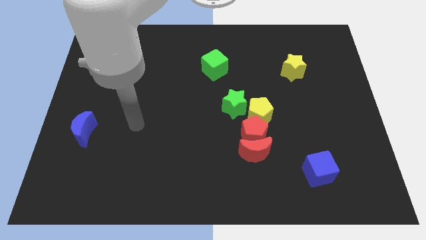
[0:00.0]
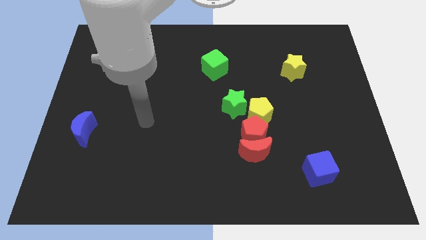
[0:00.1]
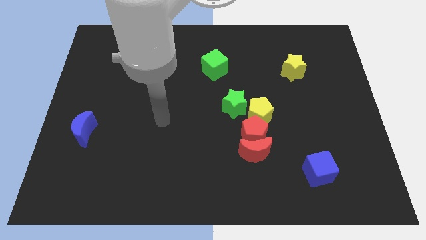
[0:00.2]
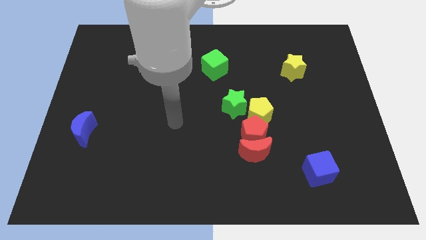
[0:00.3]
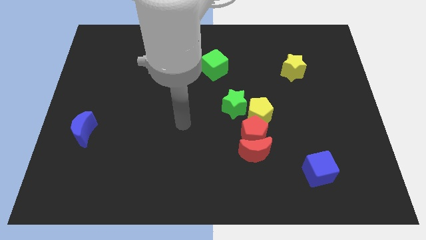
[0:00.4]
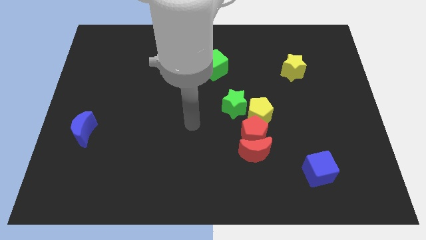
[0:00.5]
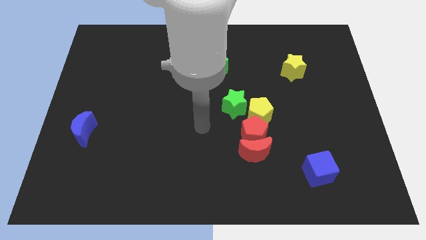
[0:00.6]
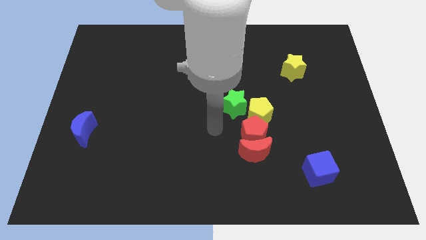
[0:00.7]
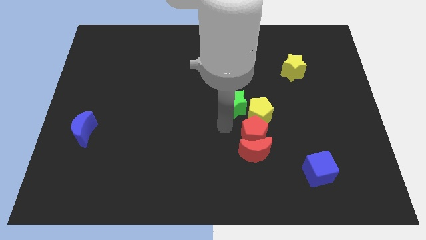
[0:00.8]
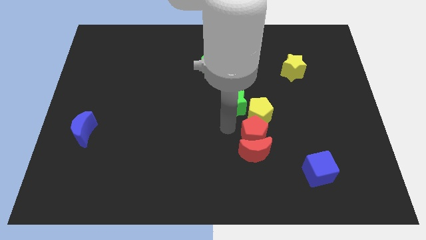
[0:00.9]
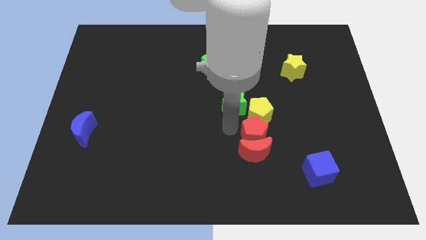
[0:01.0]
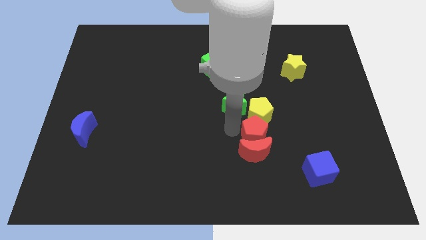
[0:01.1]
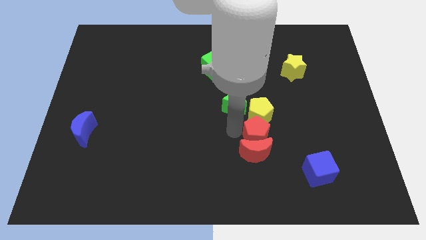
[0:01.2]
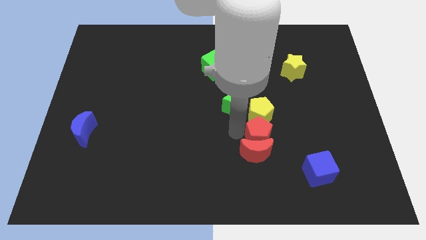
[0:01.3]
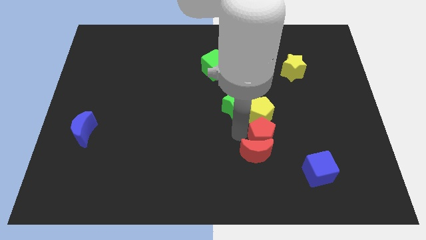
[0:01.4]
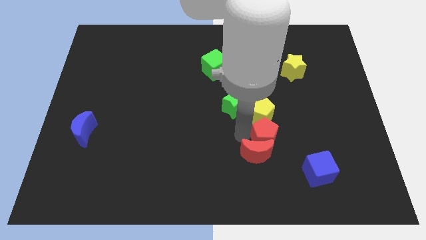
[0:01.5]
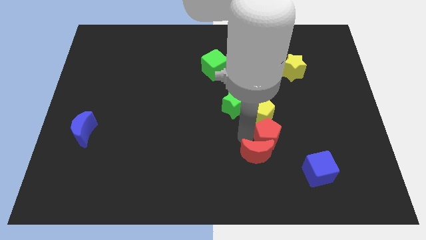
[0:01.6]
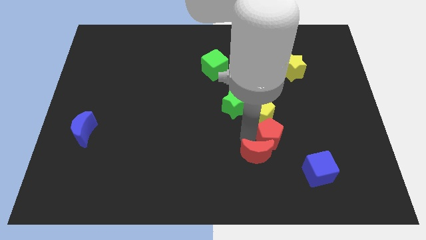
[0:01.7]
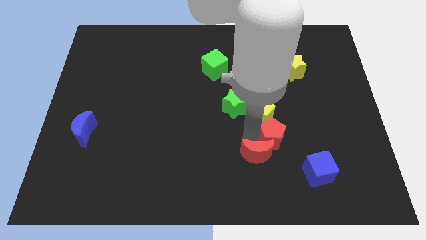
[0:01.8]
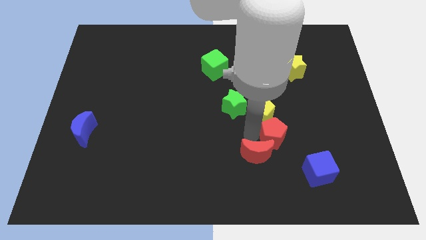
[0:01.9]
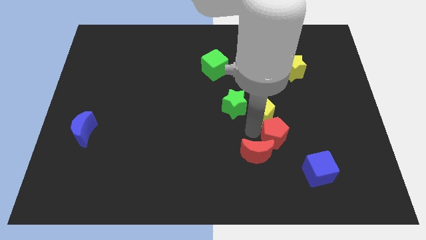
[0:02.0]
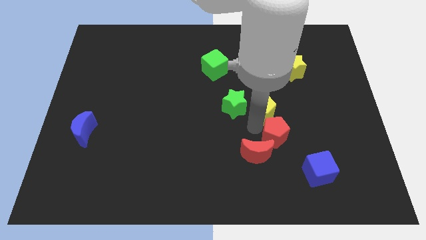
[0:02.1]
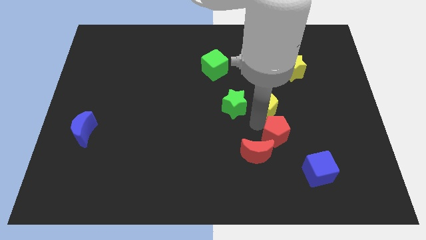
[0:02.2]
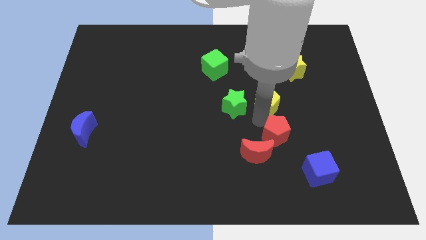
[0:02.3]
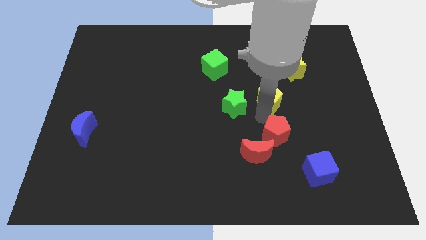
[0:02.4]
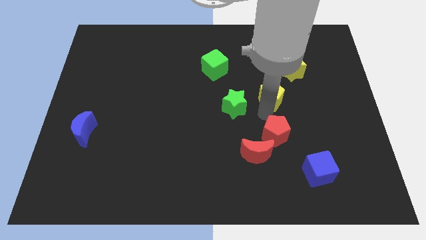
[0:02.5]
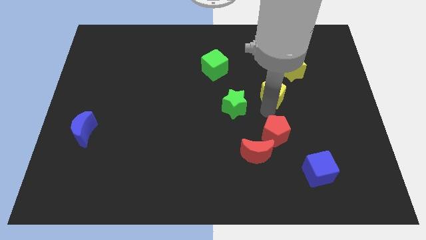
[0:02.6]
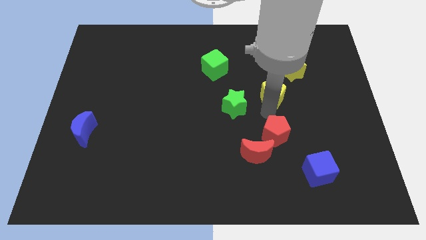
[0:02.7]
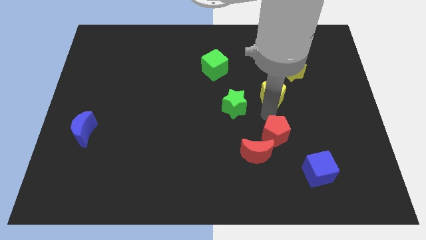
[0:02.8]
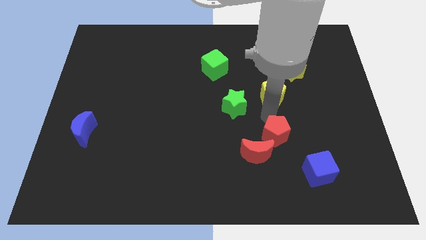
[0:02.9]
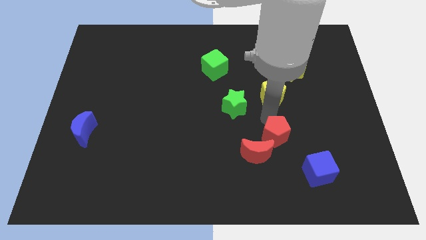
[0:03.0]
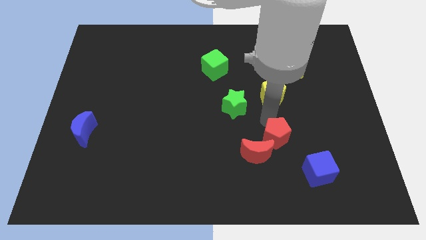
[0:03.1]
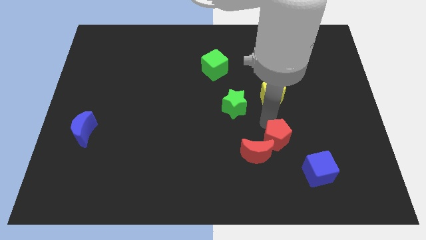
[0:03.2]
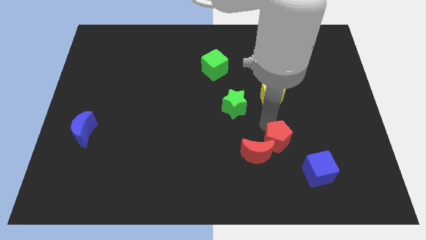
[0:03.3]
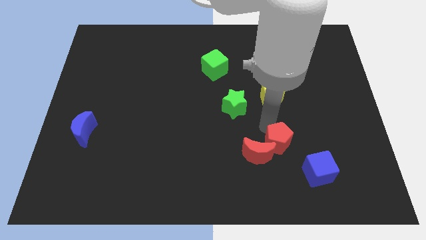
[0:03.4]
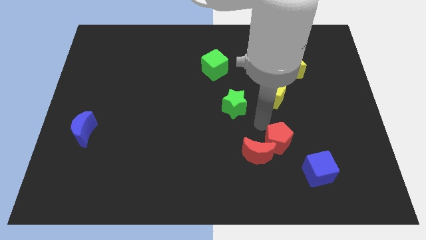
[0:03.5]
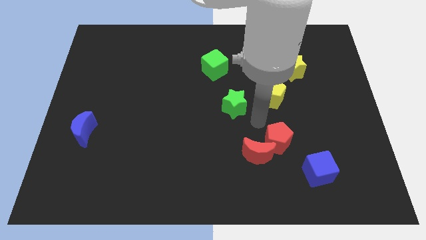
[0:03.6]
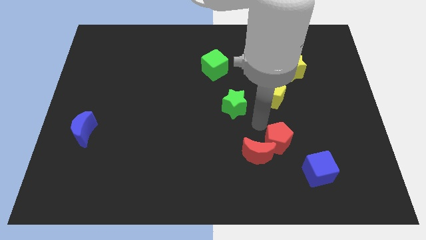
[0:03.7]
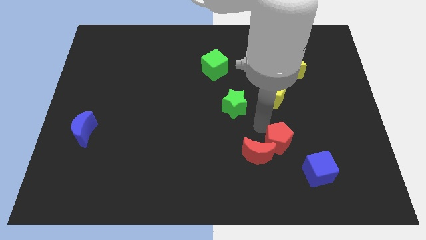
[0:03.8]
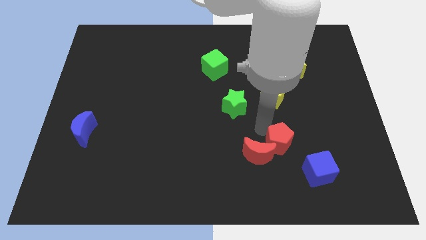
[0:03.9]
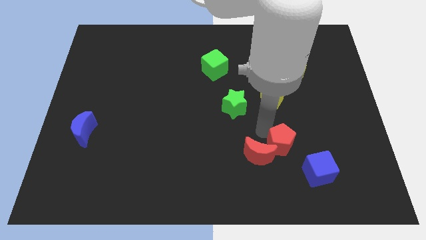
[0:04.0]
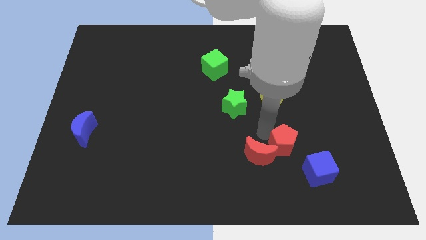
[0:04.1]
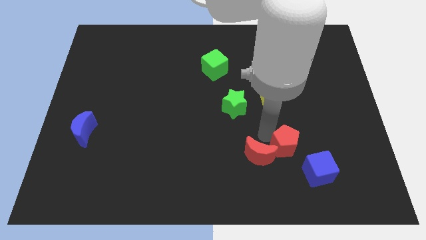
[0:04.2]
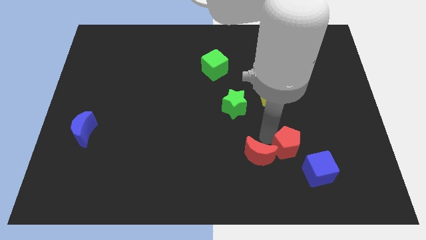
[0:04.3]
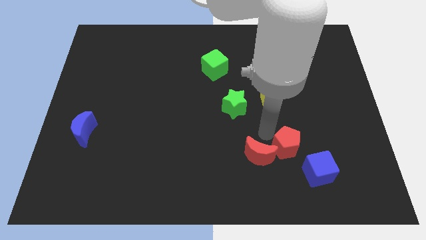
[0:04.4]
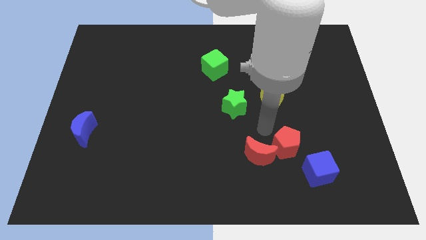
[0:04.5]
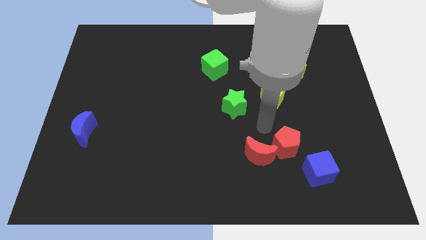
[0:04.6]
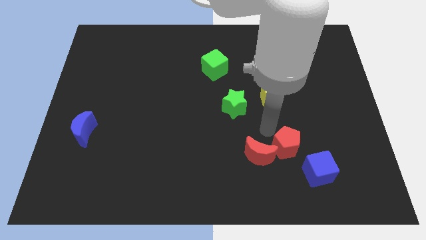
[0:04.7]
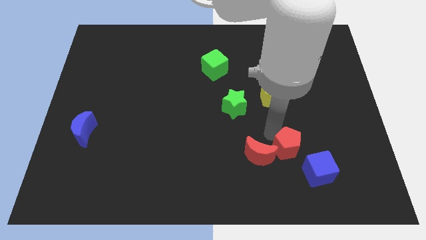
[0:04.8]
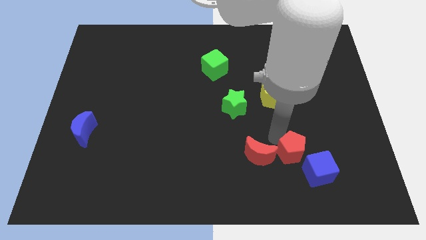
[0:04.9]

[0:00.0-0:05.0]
separate the red pentagon from the red moon, yellow pentagon, and green star

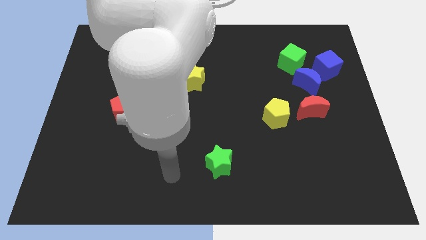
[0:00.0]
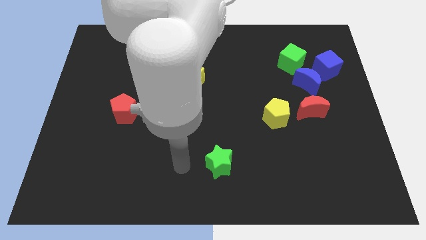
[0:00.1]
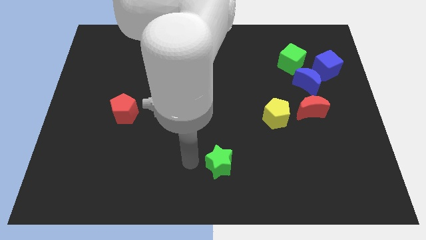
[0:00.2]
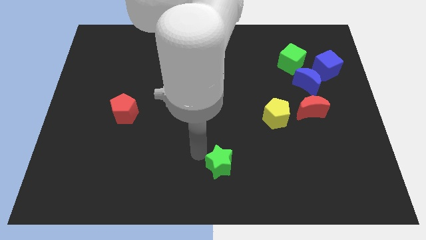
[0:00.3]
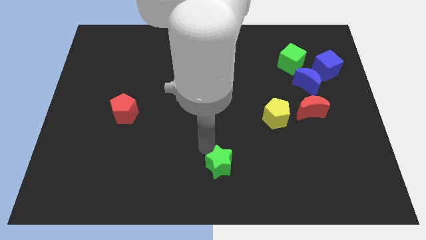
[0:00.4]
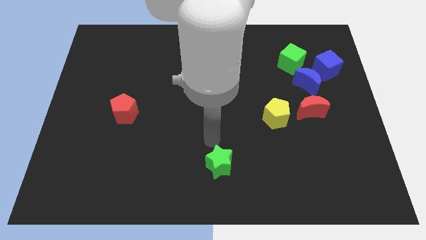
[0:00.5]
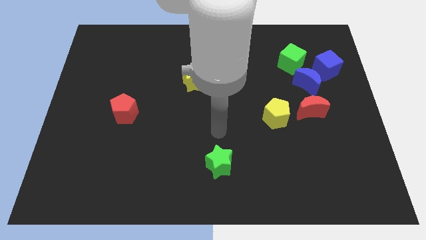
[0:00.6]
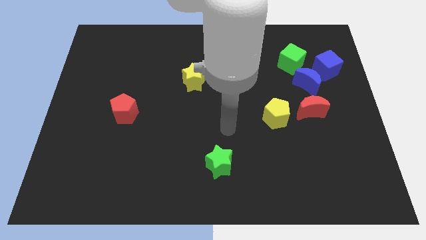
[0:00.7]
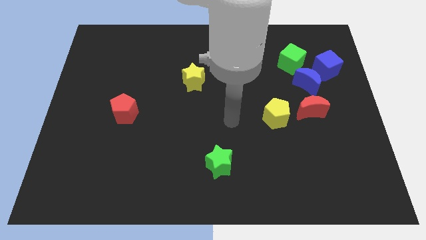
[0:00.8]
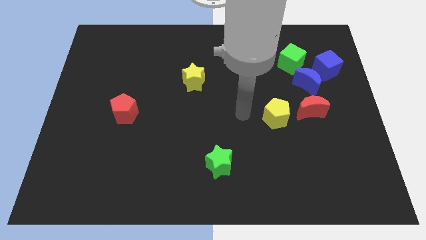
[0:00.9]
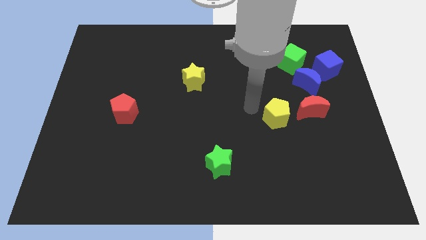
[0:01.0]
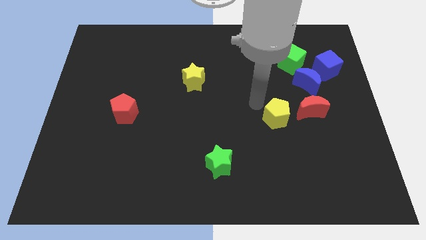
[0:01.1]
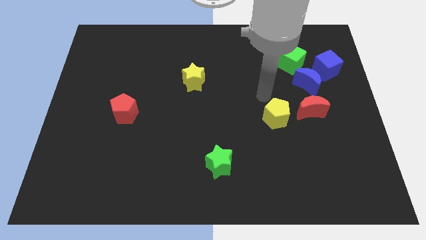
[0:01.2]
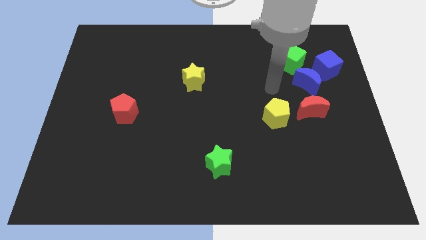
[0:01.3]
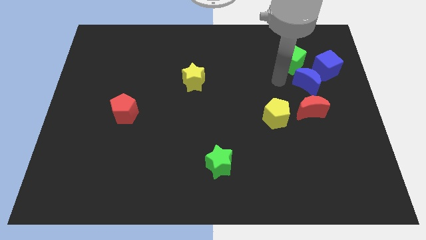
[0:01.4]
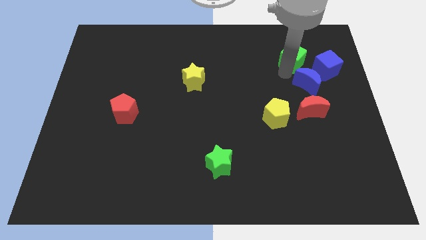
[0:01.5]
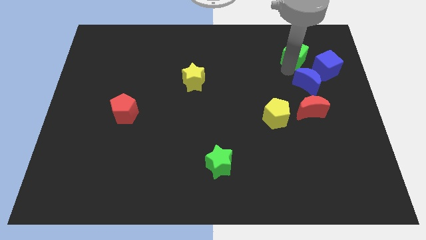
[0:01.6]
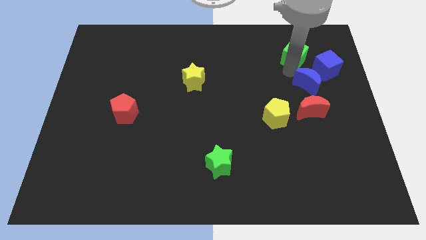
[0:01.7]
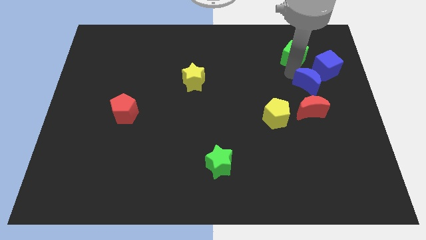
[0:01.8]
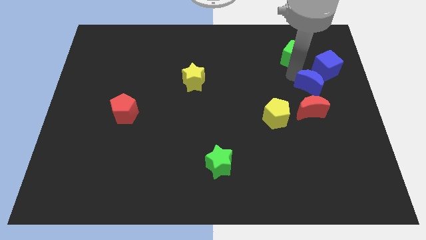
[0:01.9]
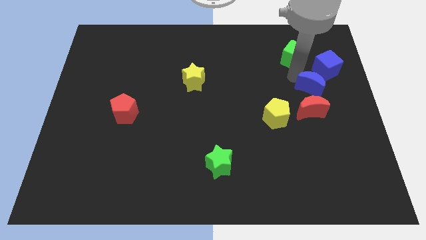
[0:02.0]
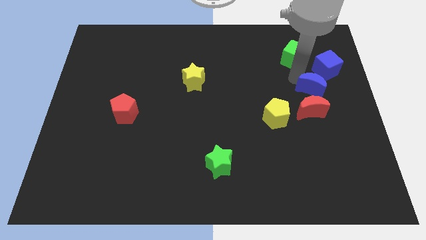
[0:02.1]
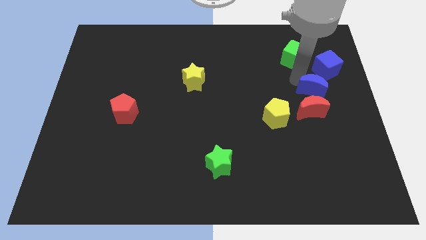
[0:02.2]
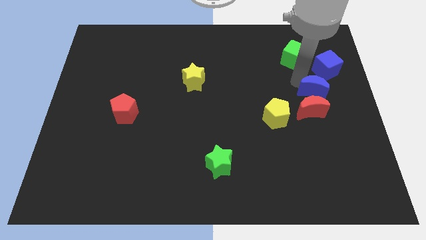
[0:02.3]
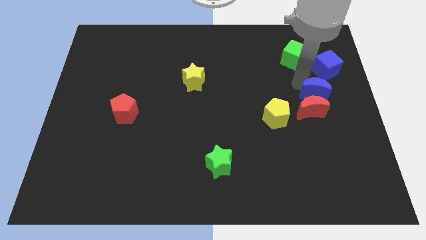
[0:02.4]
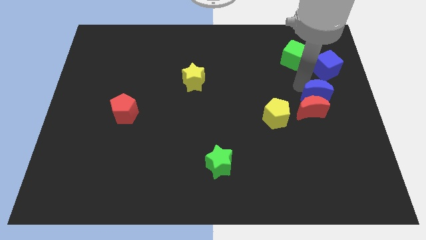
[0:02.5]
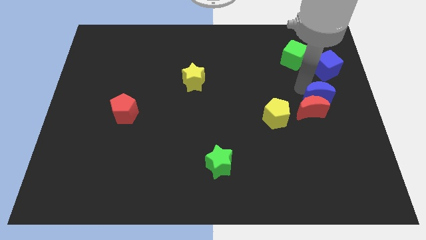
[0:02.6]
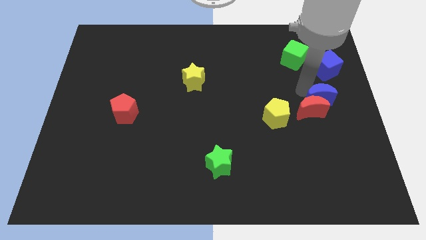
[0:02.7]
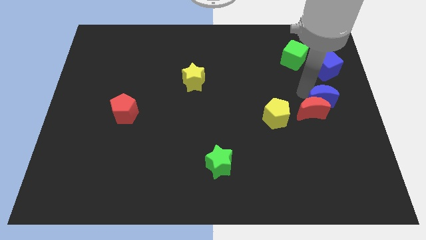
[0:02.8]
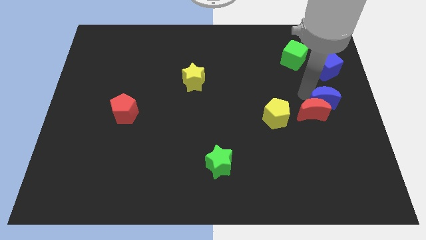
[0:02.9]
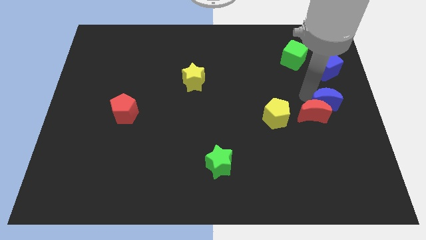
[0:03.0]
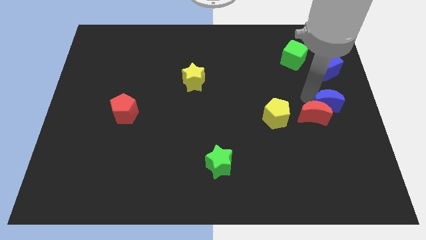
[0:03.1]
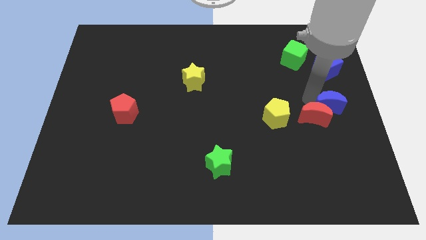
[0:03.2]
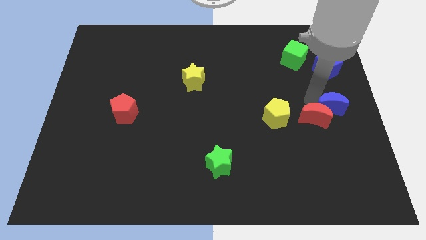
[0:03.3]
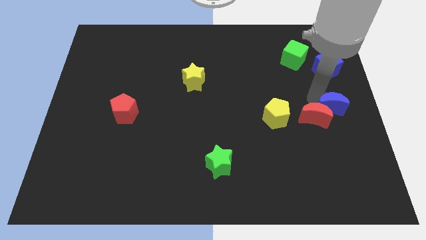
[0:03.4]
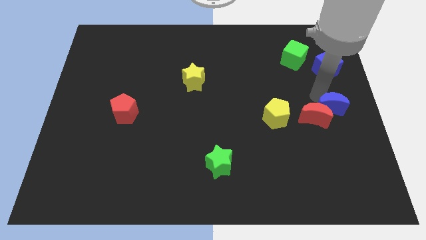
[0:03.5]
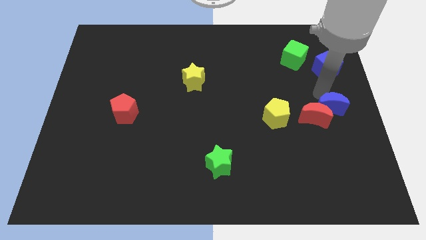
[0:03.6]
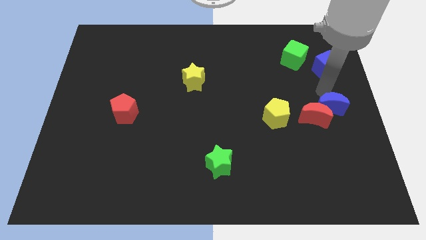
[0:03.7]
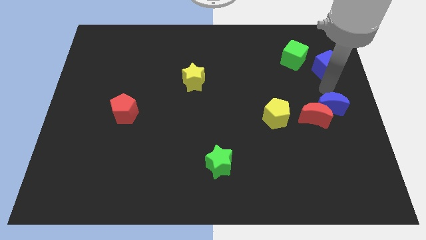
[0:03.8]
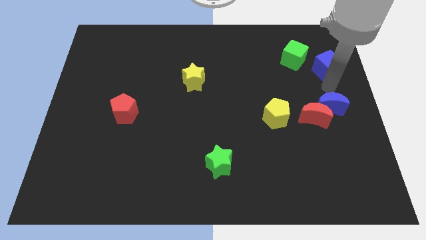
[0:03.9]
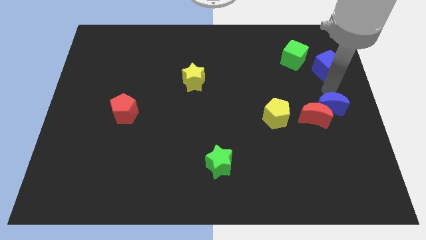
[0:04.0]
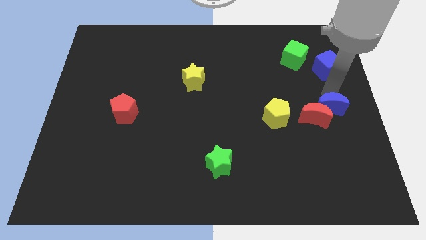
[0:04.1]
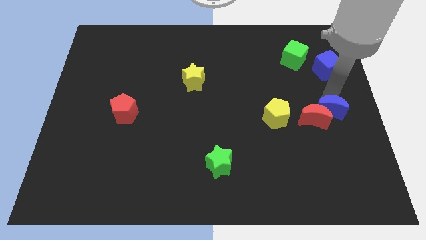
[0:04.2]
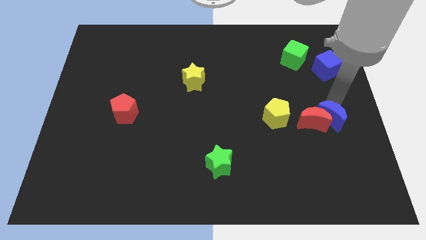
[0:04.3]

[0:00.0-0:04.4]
separate the blue moon from the blue cube, green cube, and red moon
